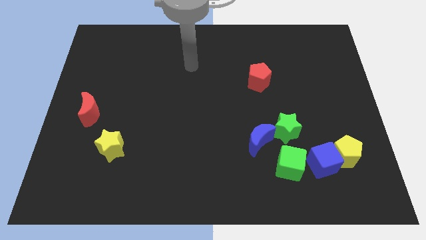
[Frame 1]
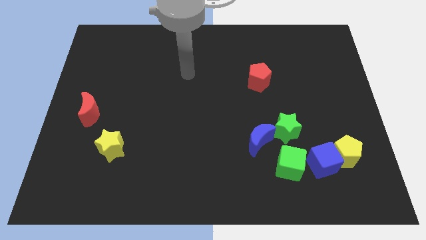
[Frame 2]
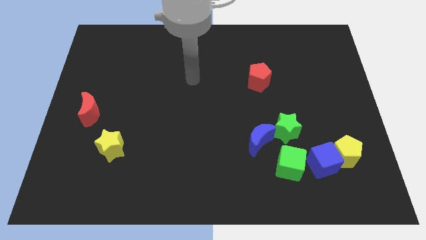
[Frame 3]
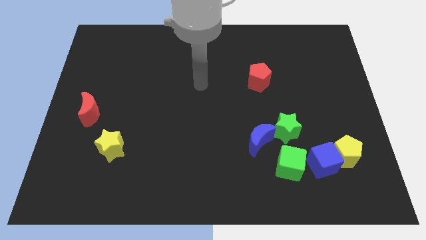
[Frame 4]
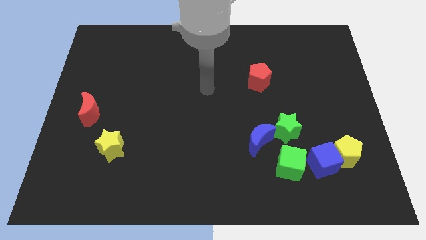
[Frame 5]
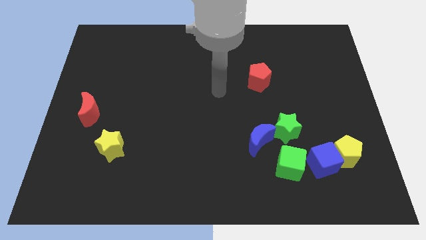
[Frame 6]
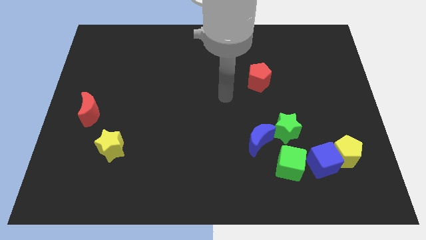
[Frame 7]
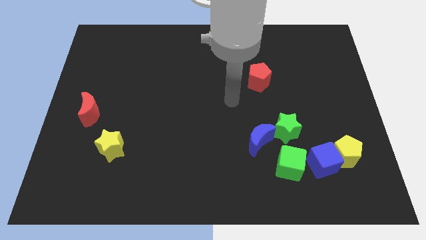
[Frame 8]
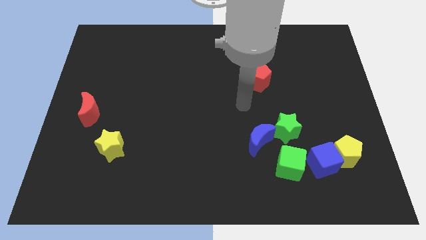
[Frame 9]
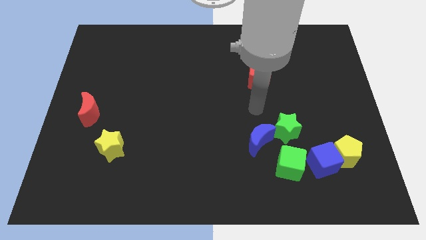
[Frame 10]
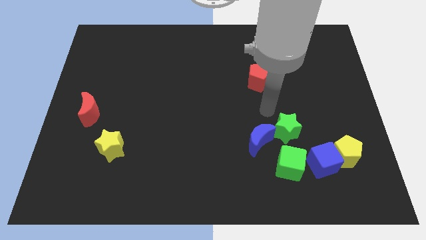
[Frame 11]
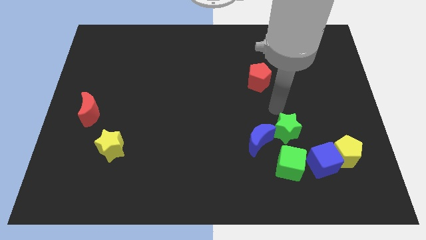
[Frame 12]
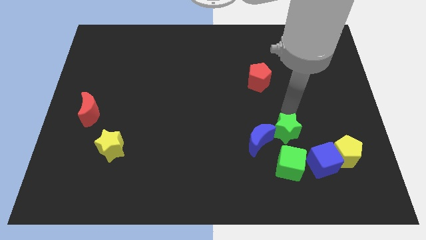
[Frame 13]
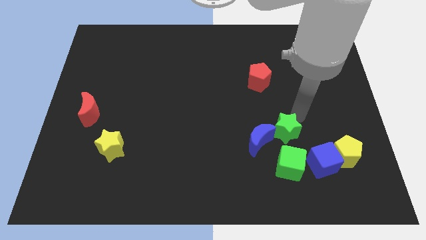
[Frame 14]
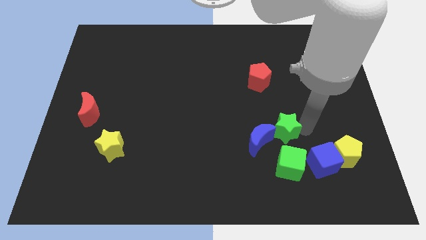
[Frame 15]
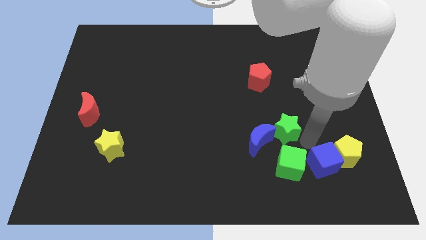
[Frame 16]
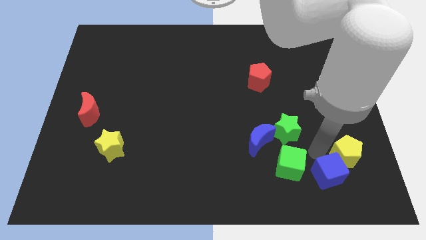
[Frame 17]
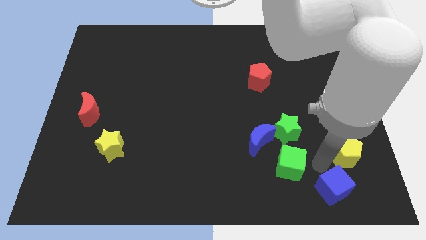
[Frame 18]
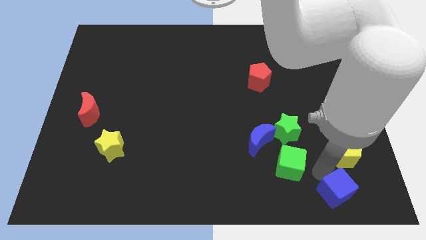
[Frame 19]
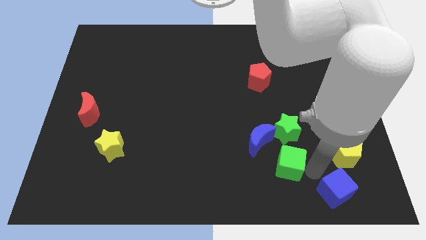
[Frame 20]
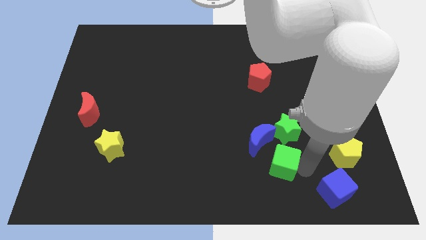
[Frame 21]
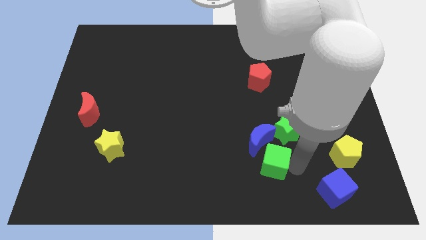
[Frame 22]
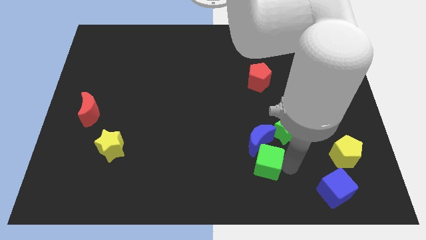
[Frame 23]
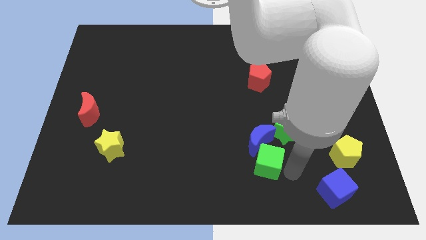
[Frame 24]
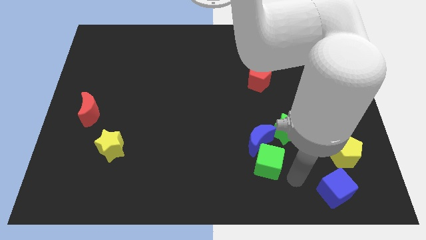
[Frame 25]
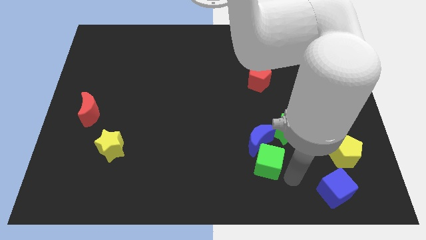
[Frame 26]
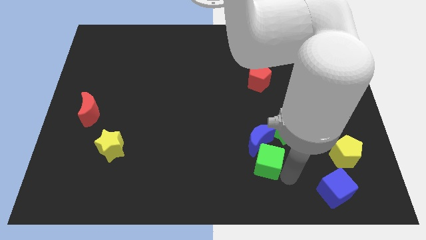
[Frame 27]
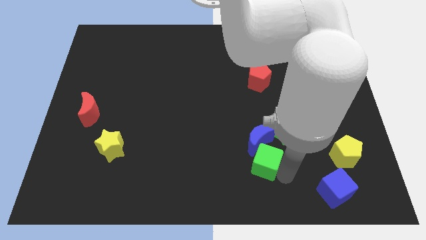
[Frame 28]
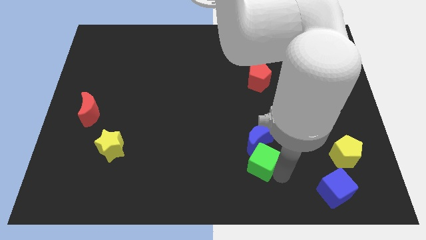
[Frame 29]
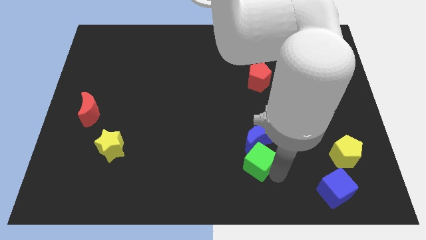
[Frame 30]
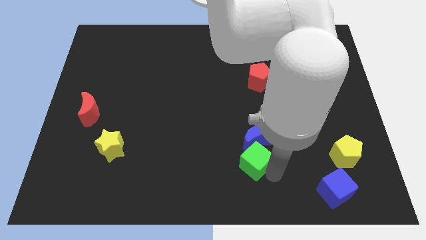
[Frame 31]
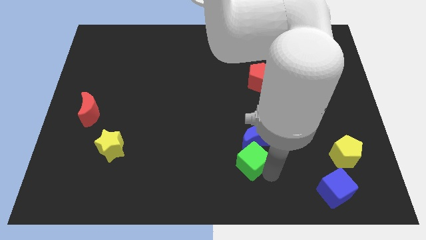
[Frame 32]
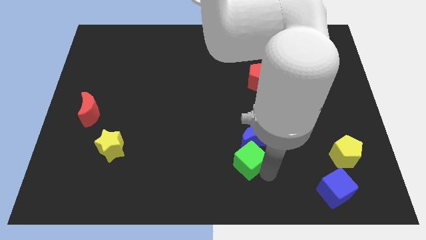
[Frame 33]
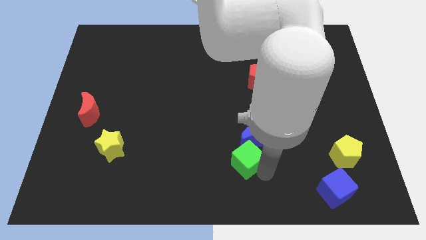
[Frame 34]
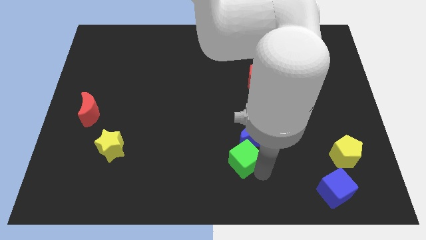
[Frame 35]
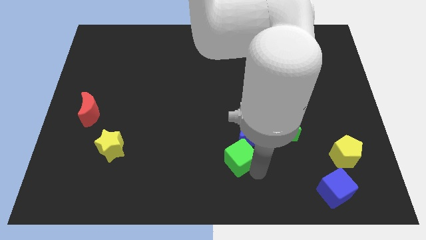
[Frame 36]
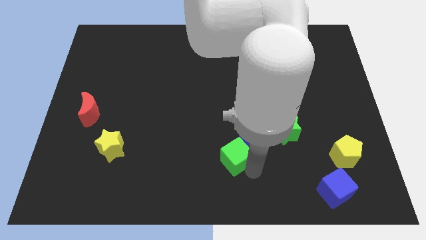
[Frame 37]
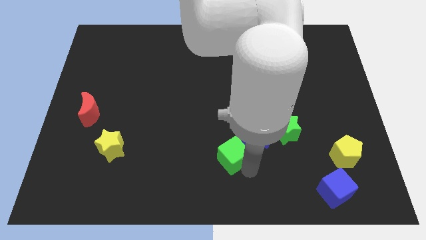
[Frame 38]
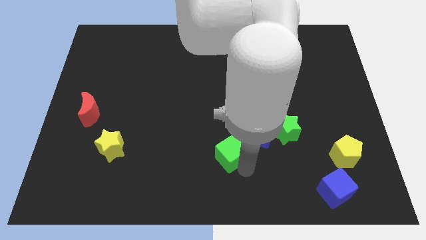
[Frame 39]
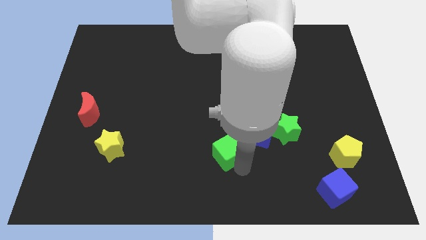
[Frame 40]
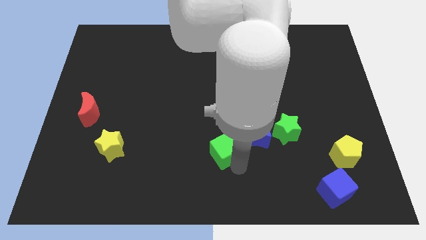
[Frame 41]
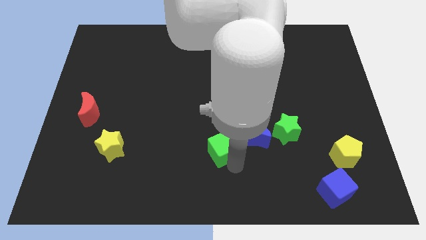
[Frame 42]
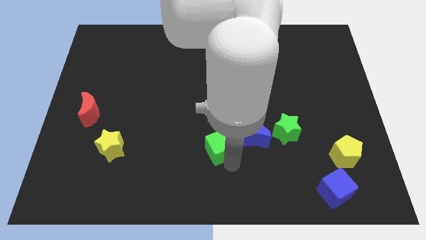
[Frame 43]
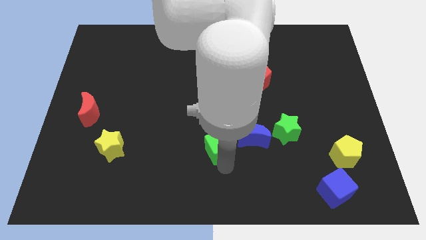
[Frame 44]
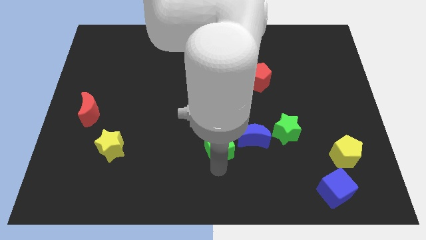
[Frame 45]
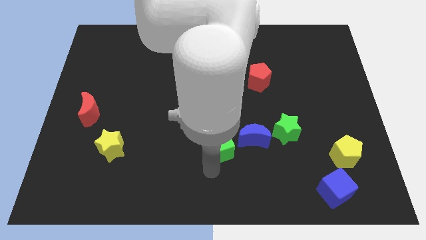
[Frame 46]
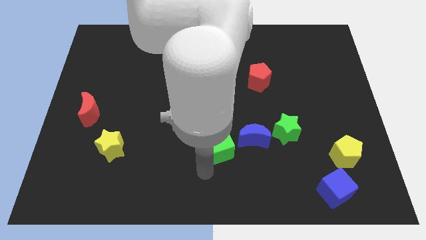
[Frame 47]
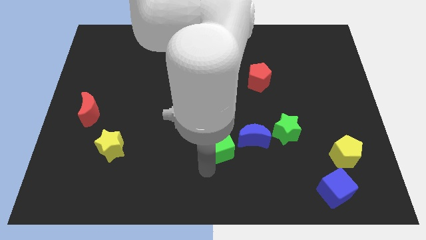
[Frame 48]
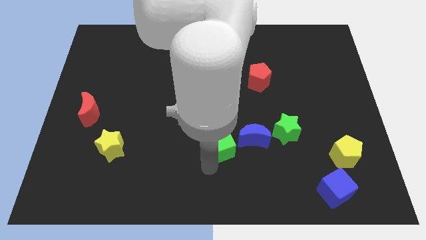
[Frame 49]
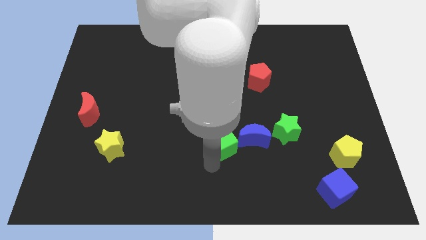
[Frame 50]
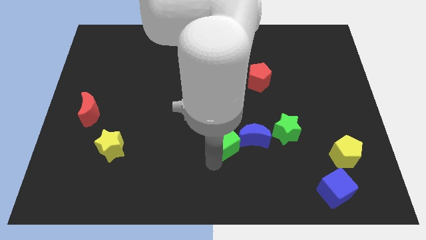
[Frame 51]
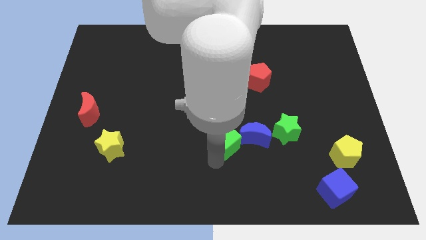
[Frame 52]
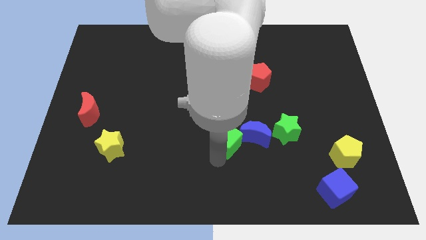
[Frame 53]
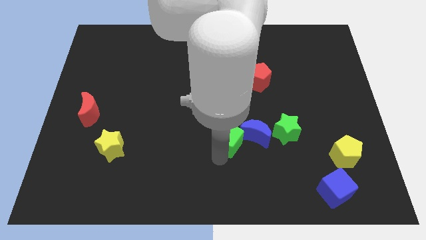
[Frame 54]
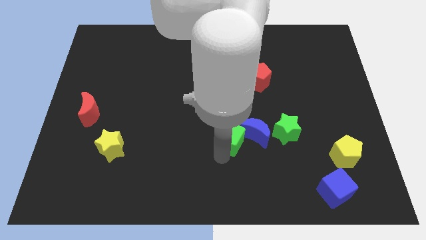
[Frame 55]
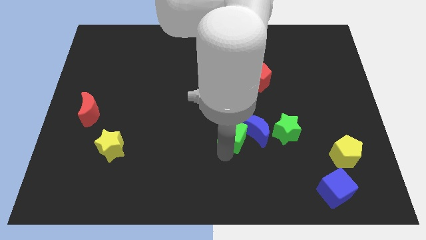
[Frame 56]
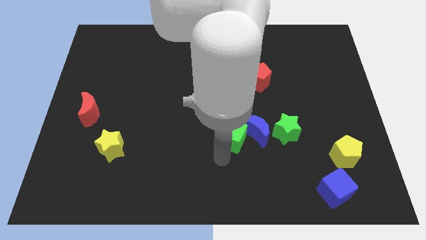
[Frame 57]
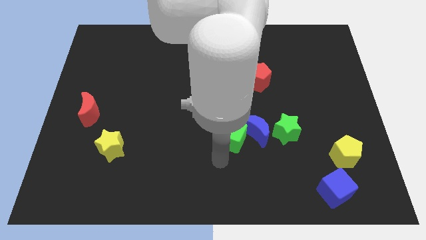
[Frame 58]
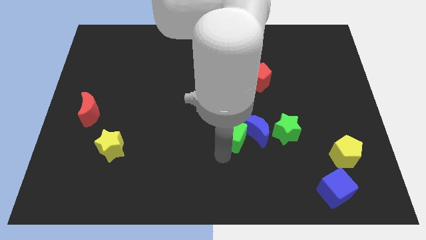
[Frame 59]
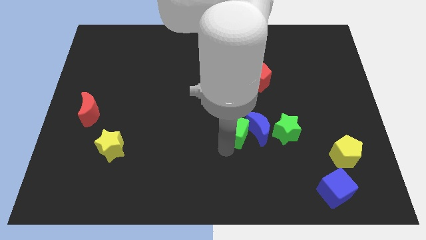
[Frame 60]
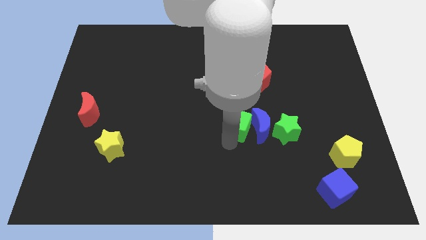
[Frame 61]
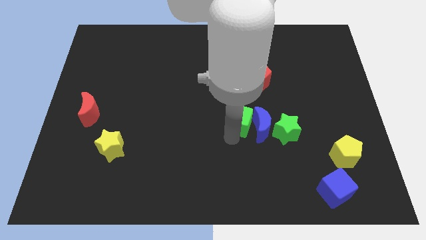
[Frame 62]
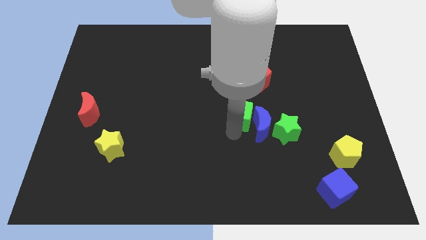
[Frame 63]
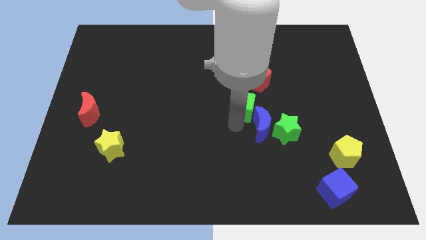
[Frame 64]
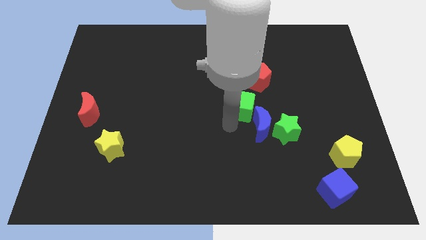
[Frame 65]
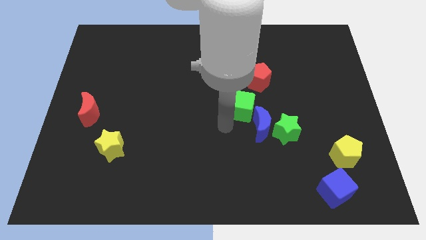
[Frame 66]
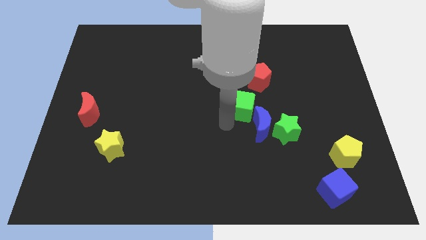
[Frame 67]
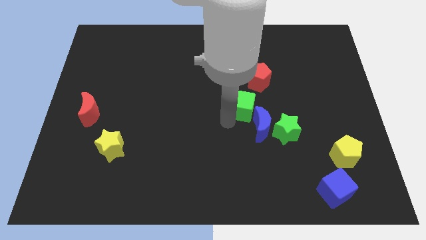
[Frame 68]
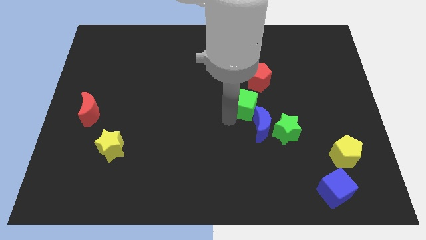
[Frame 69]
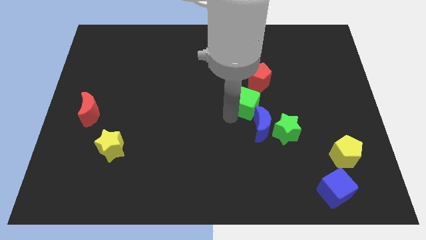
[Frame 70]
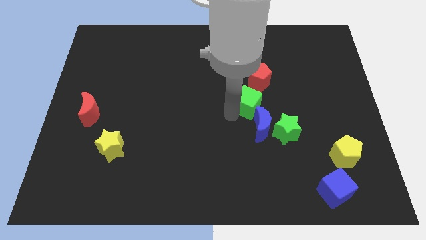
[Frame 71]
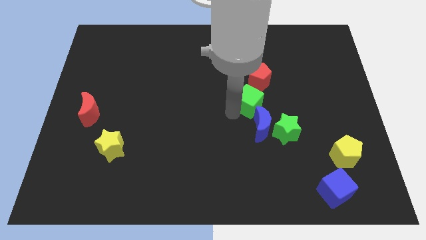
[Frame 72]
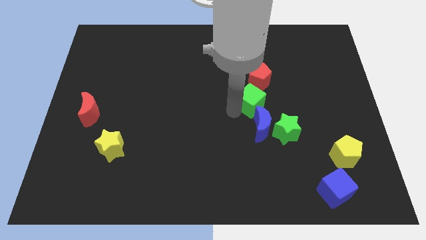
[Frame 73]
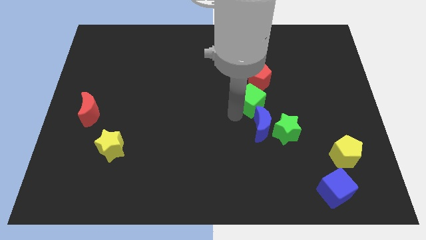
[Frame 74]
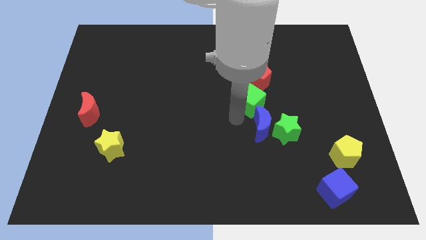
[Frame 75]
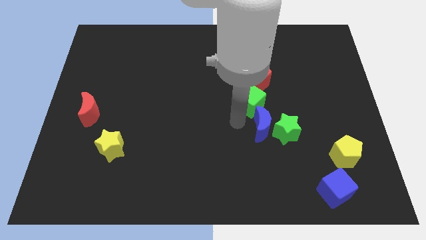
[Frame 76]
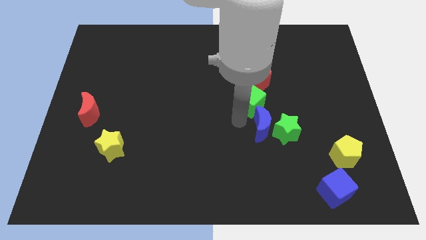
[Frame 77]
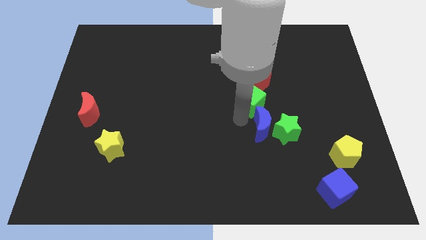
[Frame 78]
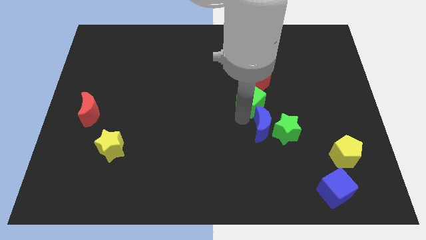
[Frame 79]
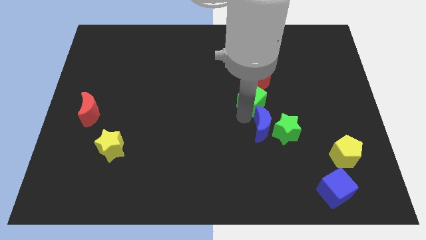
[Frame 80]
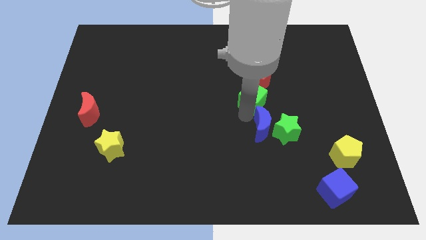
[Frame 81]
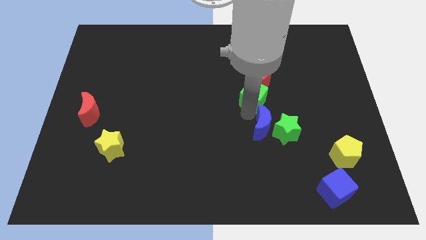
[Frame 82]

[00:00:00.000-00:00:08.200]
push the green cube towards the red pentagon
